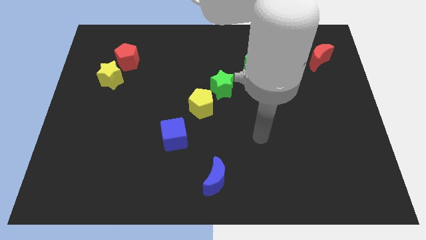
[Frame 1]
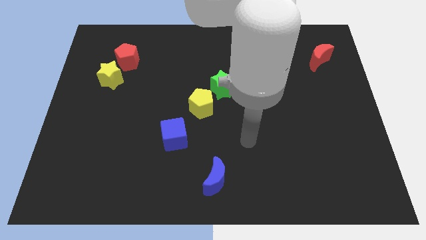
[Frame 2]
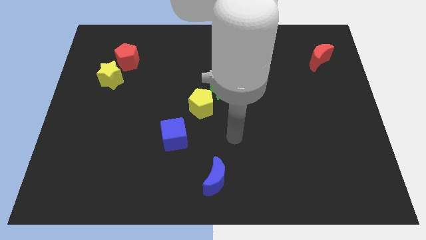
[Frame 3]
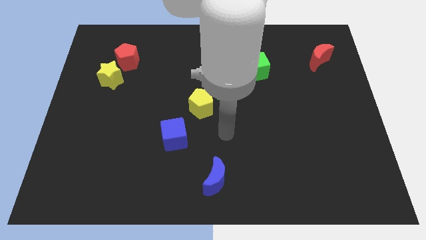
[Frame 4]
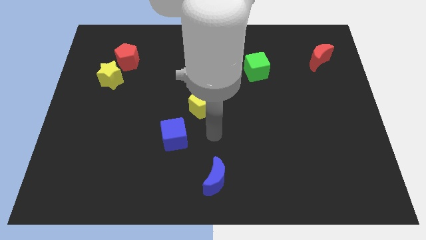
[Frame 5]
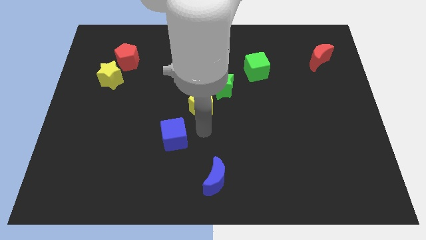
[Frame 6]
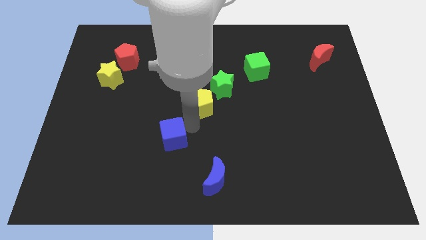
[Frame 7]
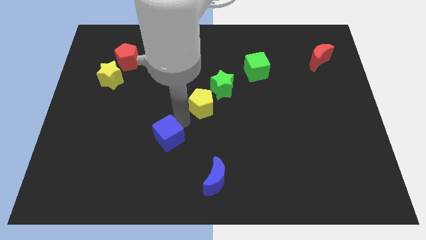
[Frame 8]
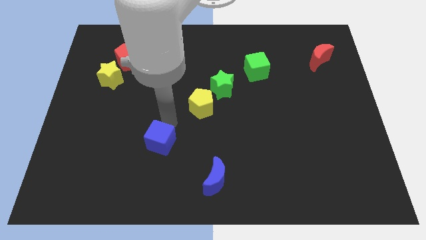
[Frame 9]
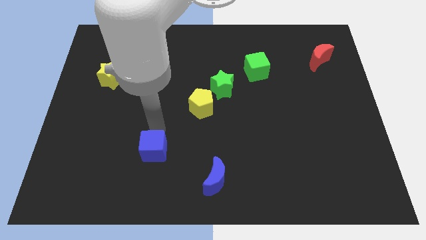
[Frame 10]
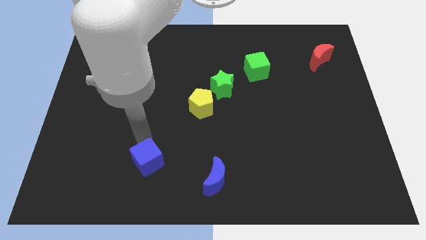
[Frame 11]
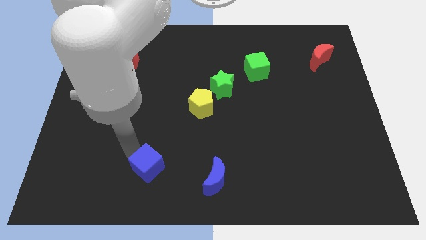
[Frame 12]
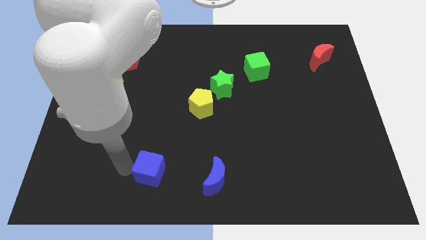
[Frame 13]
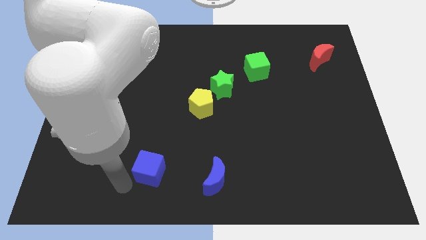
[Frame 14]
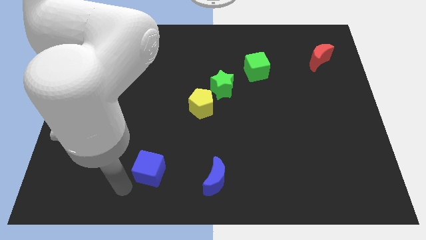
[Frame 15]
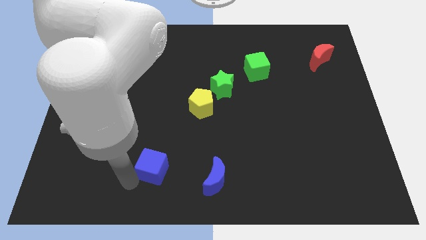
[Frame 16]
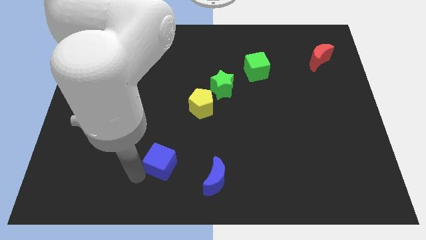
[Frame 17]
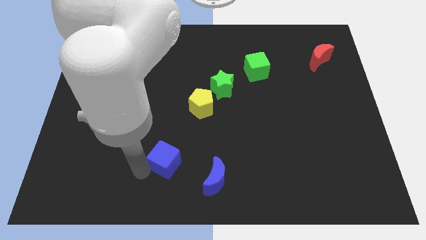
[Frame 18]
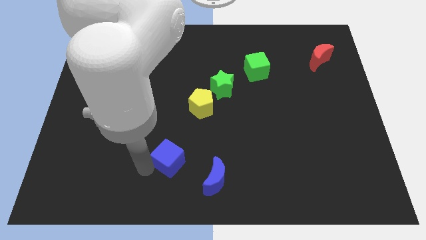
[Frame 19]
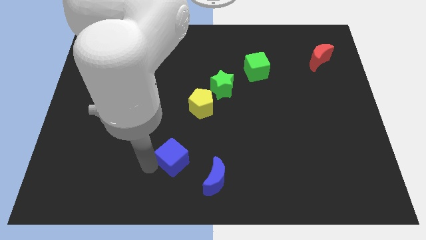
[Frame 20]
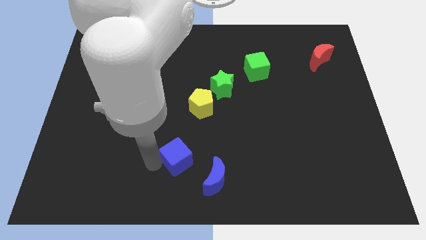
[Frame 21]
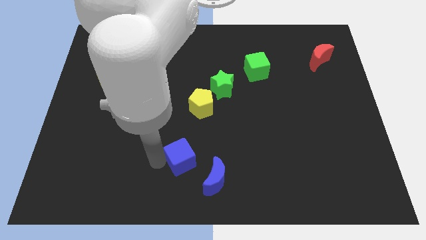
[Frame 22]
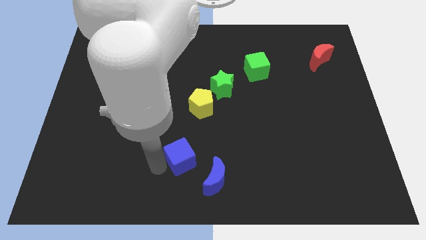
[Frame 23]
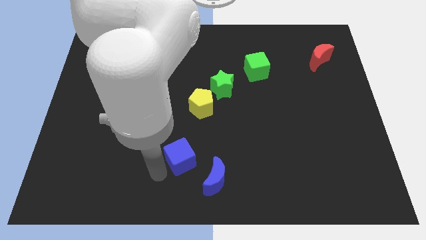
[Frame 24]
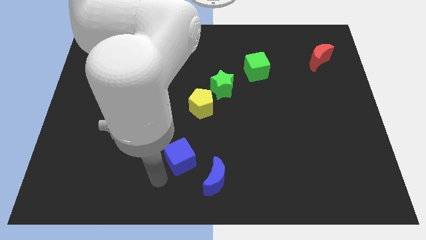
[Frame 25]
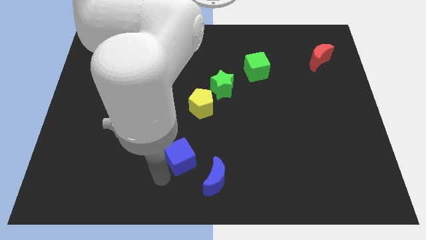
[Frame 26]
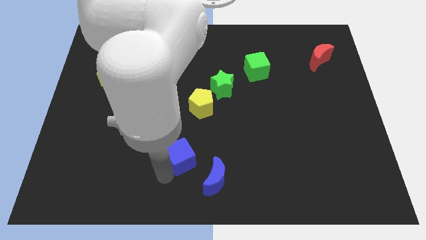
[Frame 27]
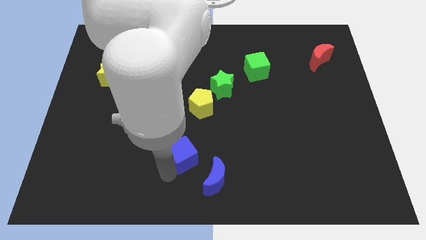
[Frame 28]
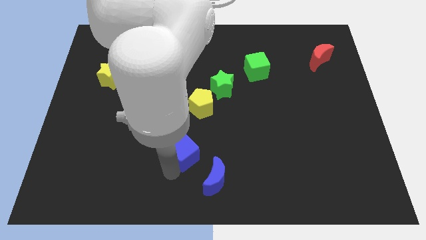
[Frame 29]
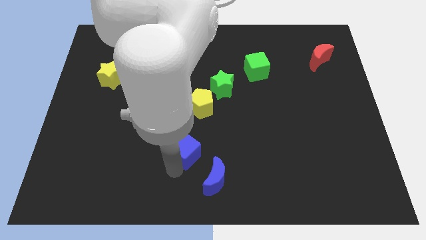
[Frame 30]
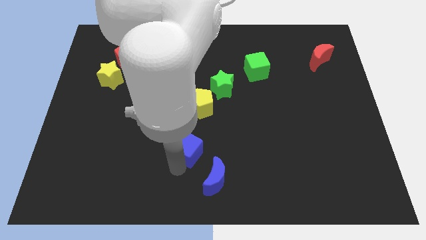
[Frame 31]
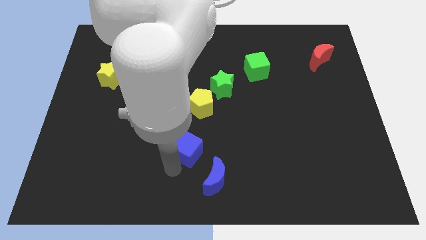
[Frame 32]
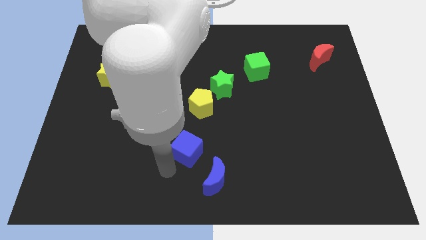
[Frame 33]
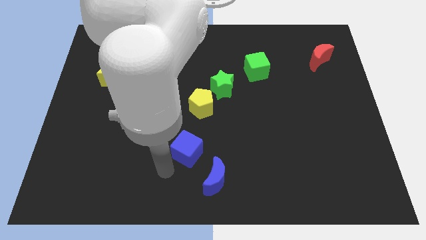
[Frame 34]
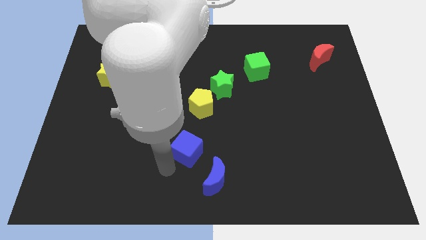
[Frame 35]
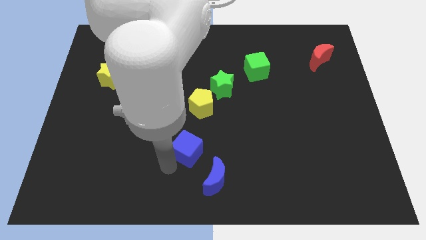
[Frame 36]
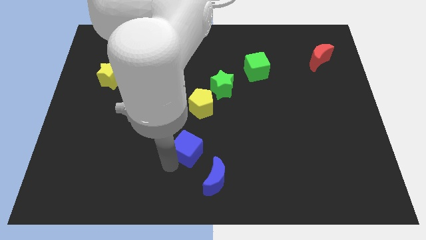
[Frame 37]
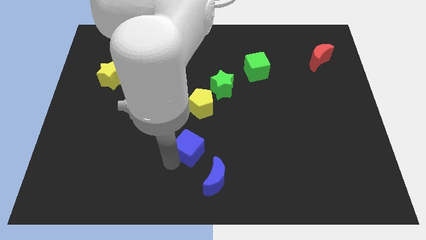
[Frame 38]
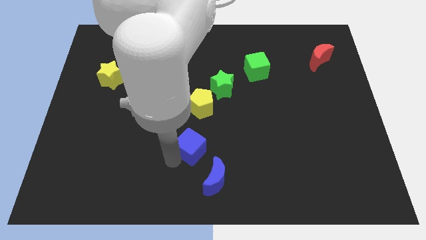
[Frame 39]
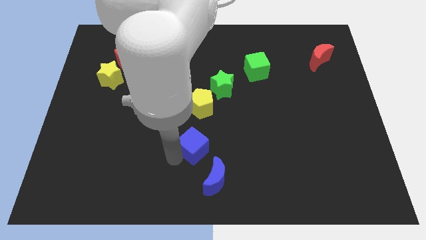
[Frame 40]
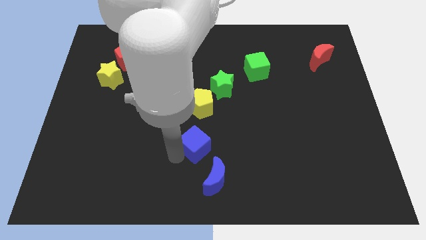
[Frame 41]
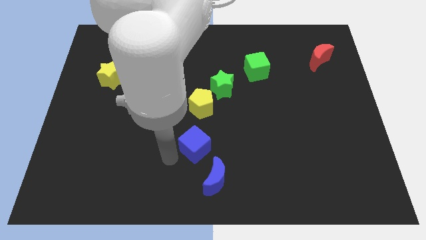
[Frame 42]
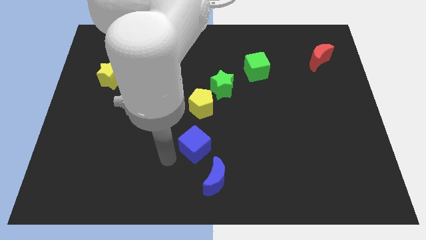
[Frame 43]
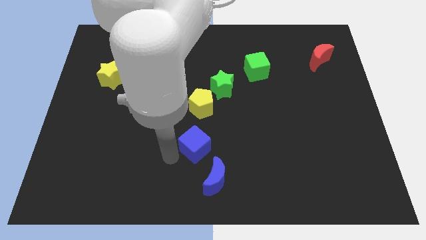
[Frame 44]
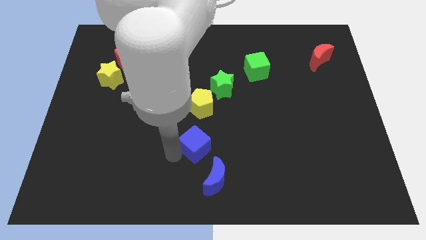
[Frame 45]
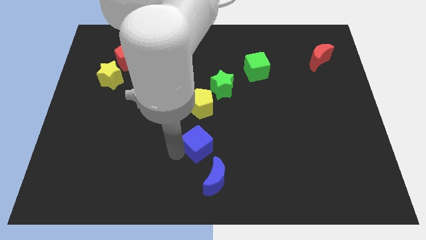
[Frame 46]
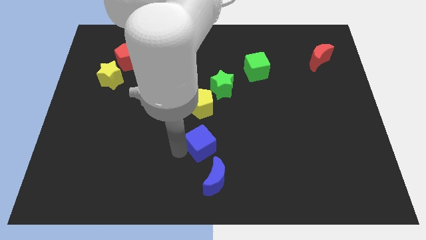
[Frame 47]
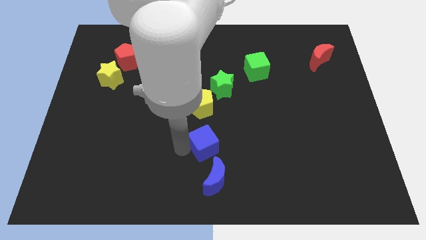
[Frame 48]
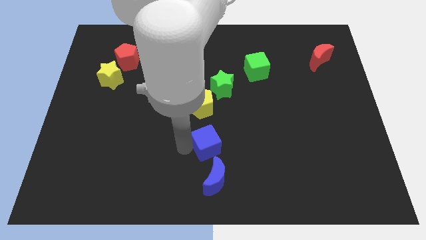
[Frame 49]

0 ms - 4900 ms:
slide the blue cube right somewhat

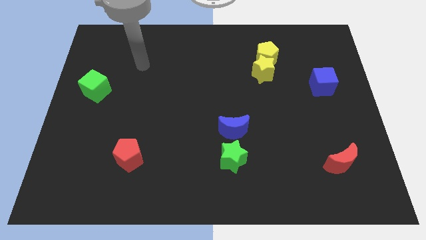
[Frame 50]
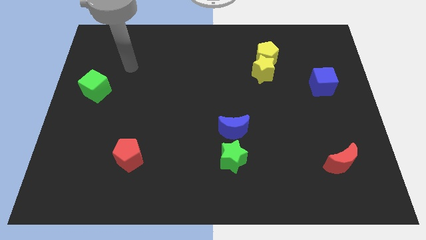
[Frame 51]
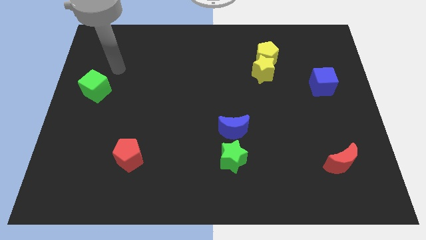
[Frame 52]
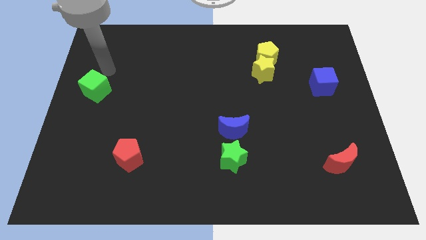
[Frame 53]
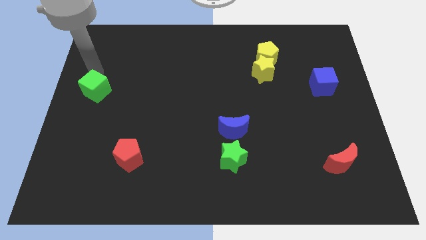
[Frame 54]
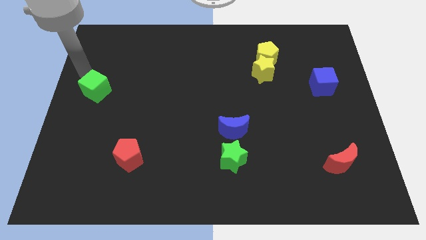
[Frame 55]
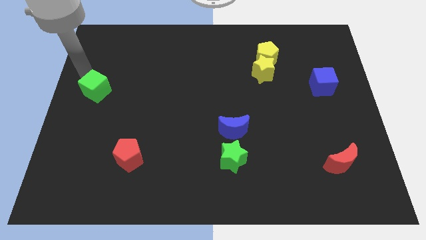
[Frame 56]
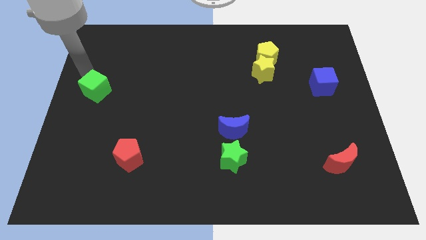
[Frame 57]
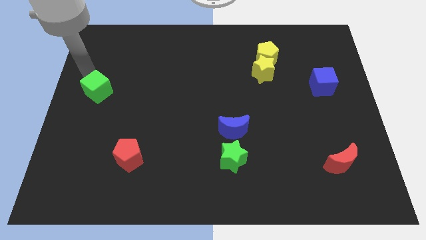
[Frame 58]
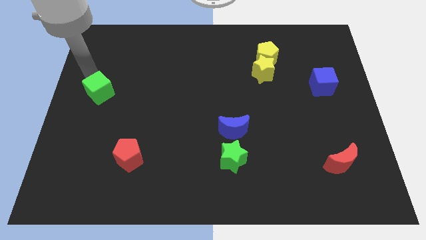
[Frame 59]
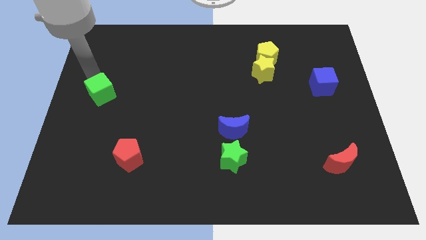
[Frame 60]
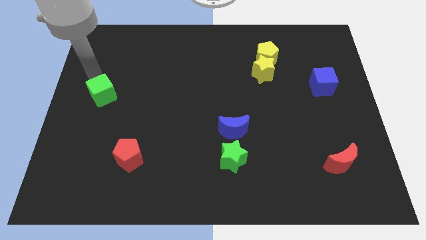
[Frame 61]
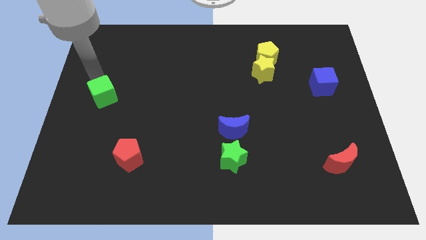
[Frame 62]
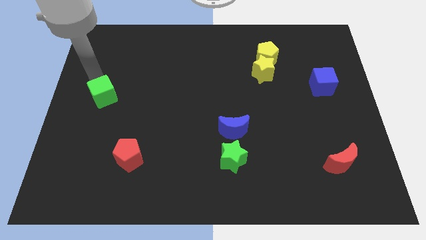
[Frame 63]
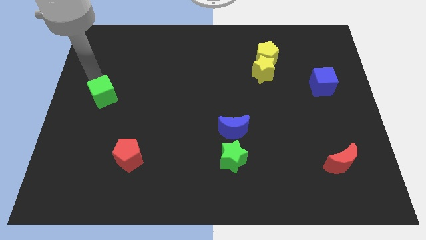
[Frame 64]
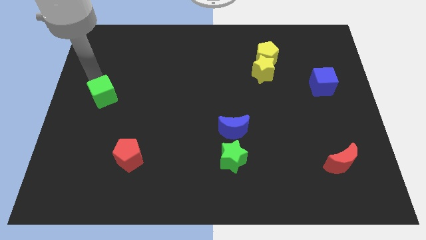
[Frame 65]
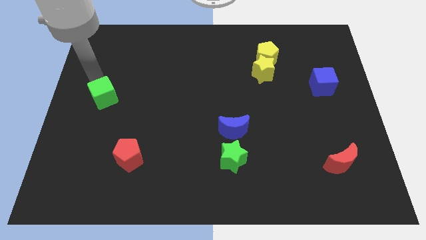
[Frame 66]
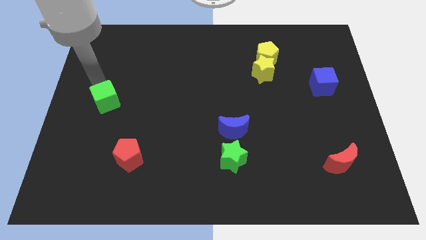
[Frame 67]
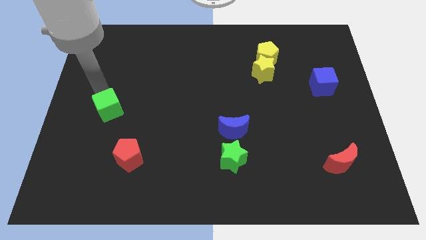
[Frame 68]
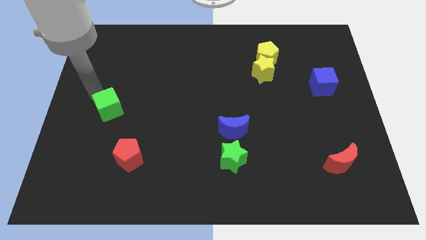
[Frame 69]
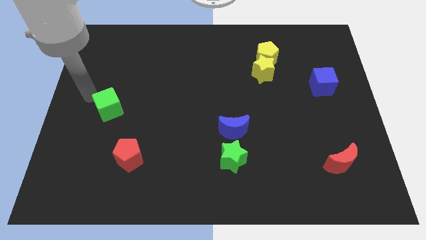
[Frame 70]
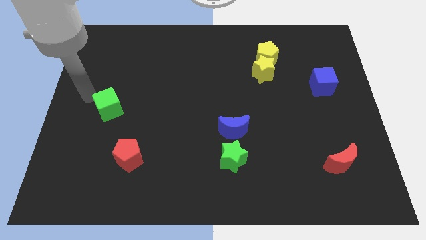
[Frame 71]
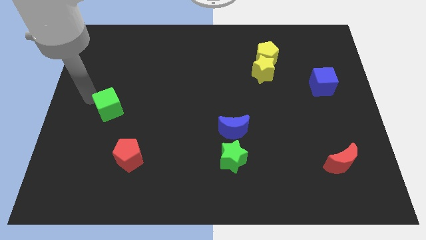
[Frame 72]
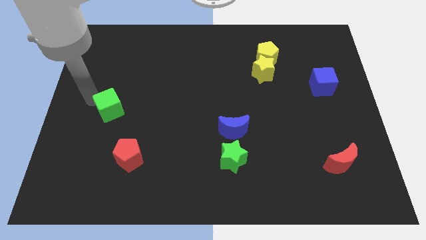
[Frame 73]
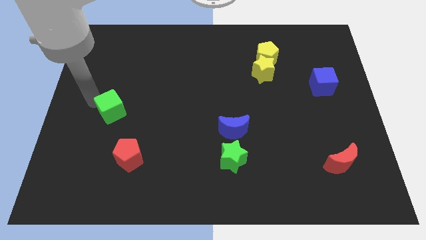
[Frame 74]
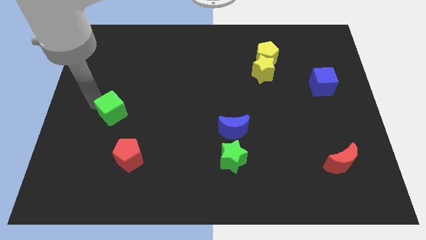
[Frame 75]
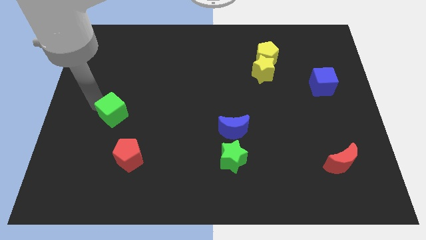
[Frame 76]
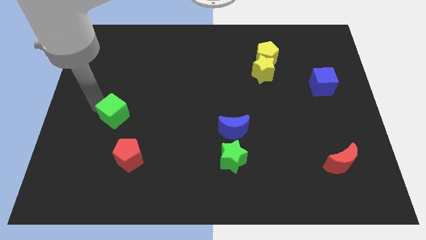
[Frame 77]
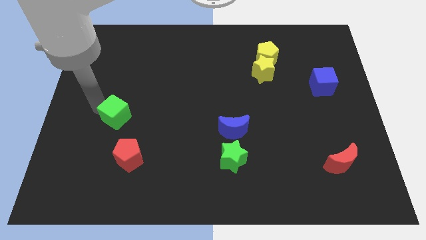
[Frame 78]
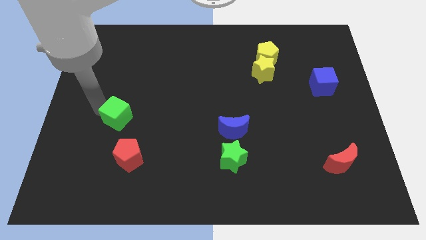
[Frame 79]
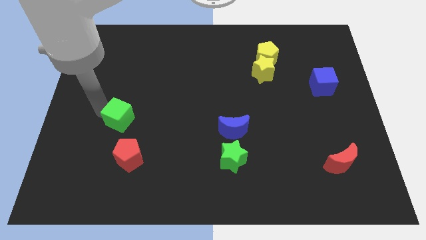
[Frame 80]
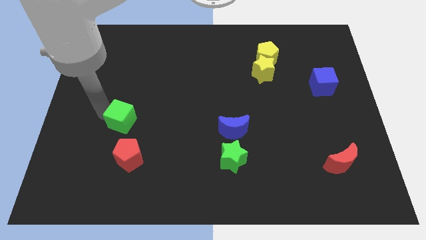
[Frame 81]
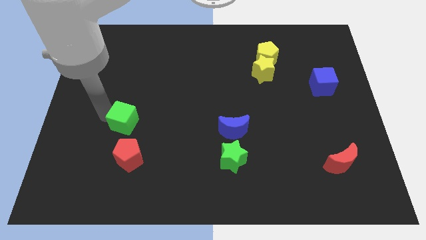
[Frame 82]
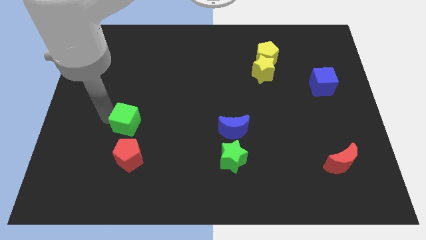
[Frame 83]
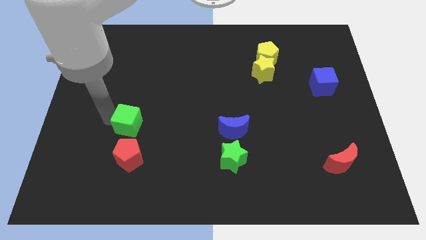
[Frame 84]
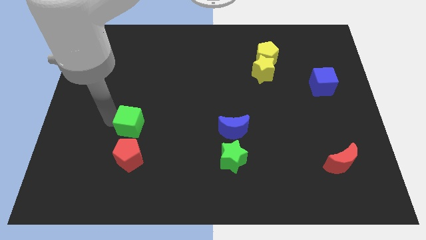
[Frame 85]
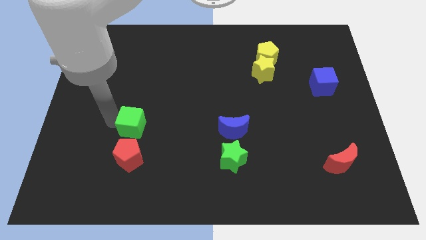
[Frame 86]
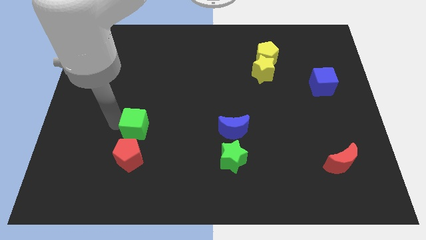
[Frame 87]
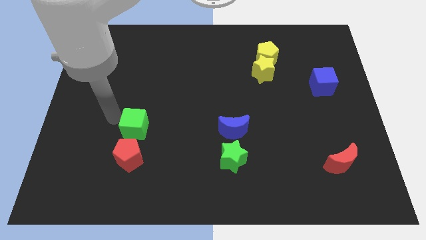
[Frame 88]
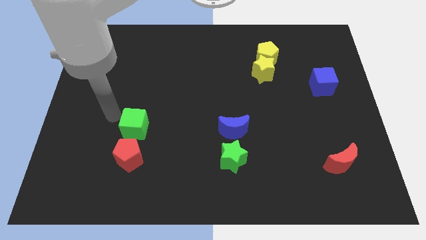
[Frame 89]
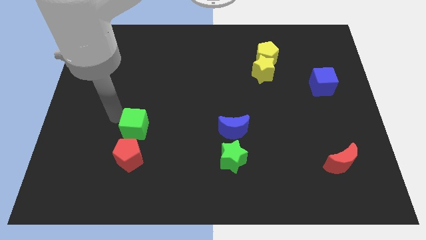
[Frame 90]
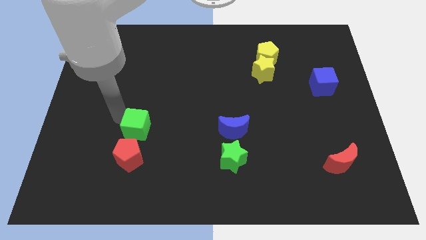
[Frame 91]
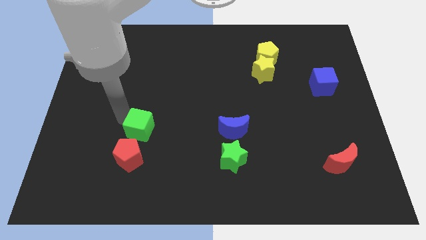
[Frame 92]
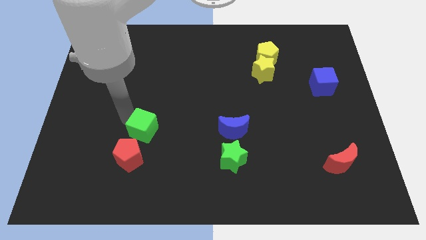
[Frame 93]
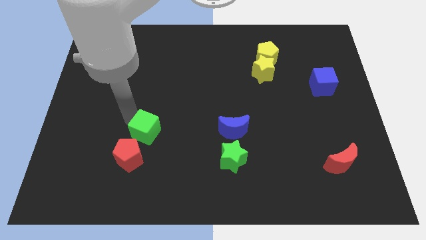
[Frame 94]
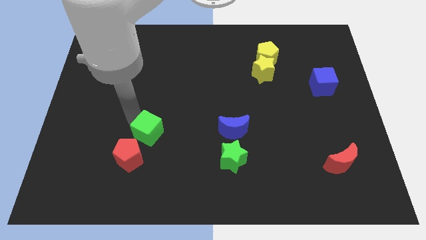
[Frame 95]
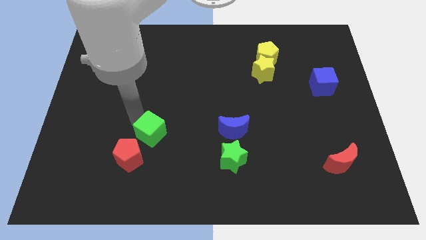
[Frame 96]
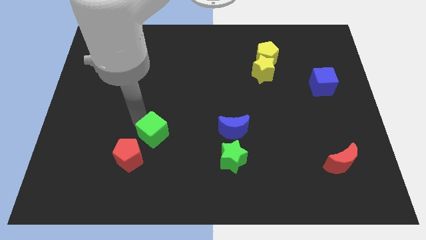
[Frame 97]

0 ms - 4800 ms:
push the green cube down and then right
